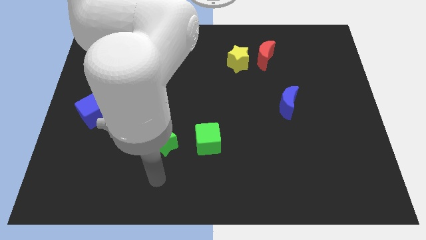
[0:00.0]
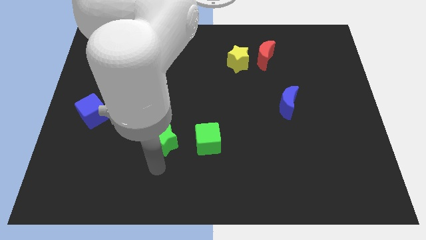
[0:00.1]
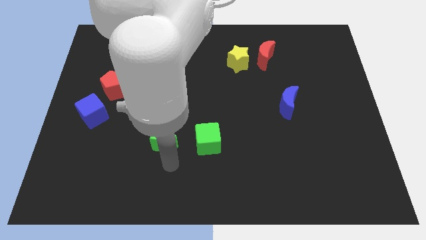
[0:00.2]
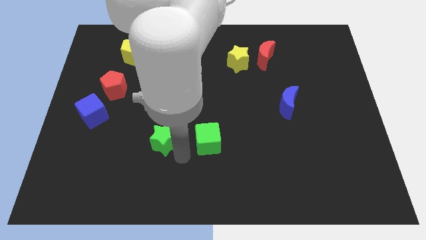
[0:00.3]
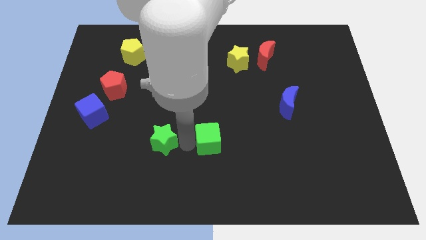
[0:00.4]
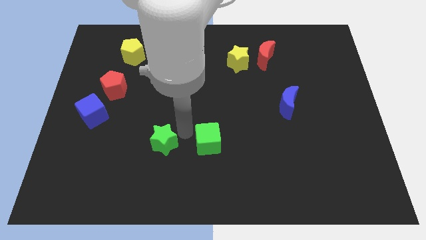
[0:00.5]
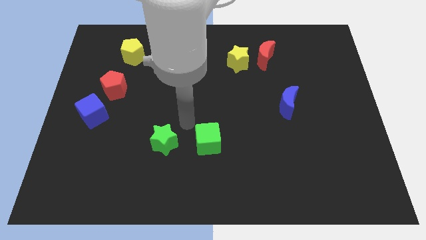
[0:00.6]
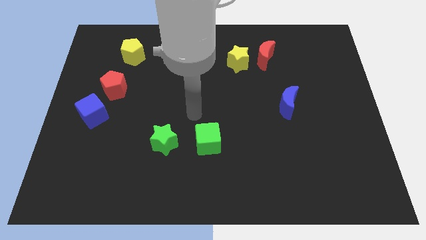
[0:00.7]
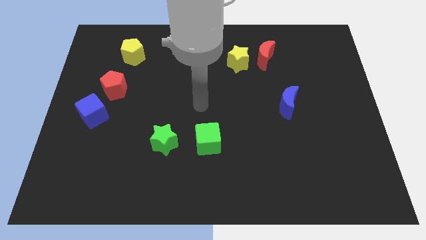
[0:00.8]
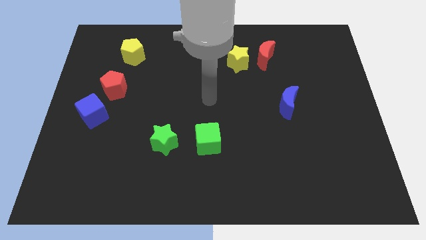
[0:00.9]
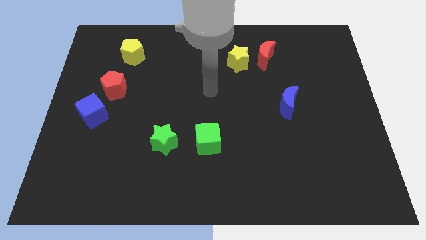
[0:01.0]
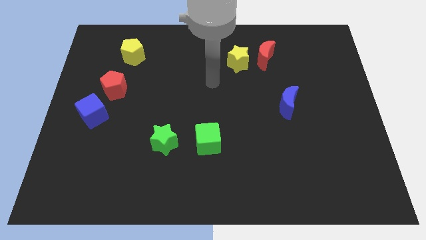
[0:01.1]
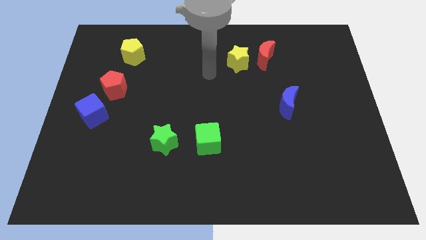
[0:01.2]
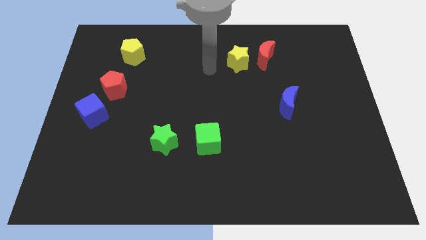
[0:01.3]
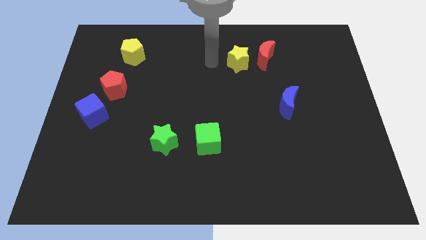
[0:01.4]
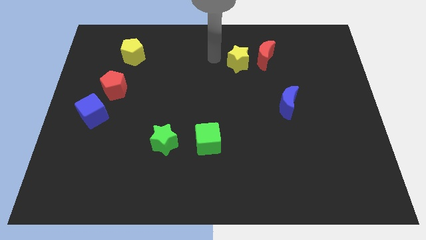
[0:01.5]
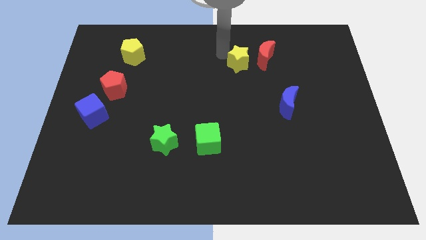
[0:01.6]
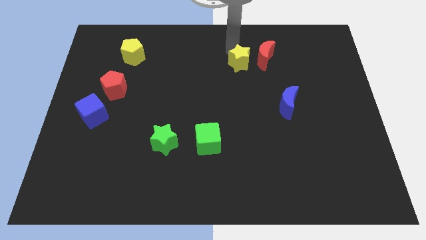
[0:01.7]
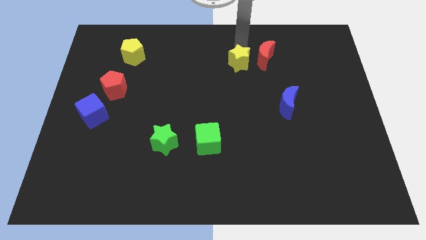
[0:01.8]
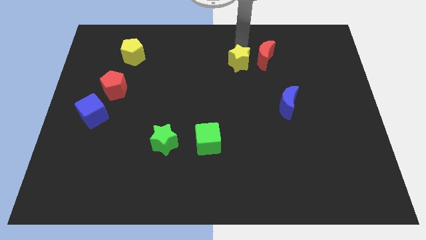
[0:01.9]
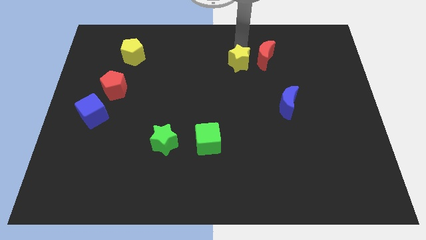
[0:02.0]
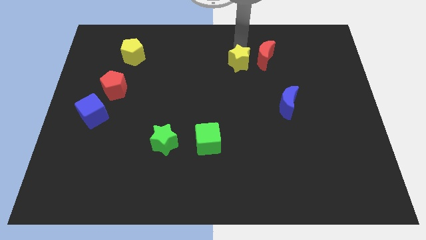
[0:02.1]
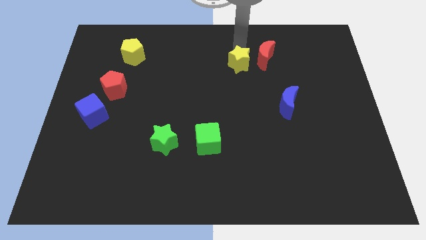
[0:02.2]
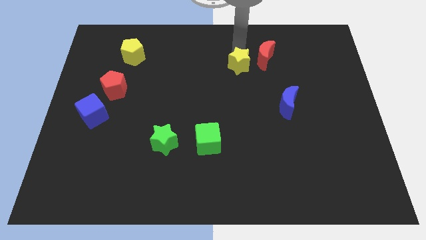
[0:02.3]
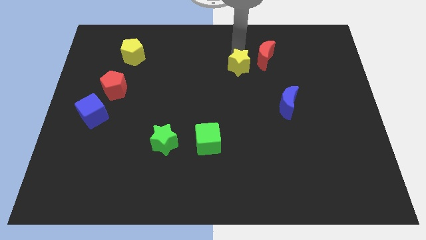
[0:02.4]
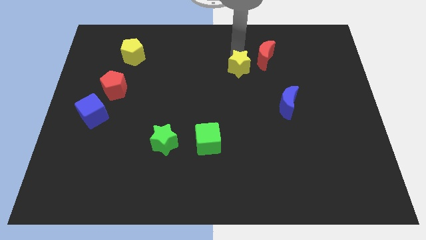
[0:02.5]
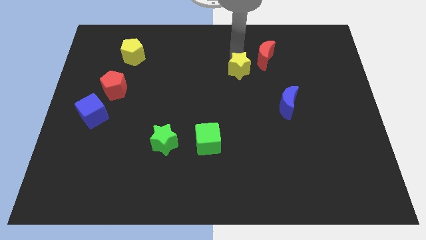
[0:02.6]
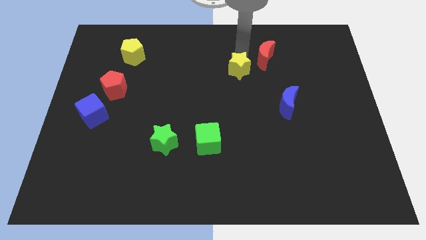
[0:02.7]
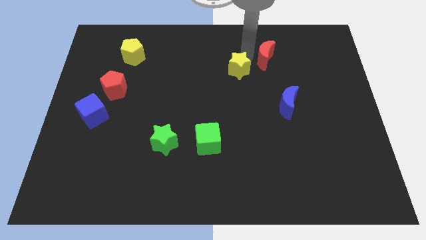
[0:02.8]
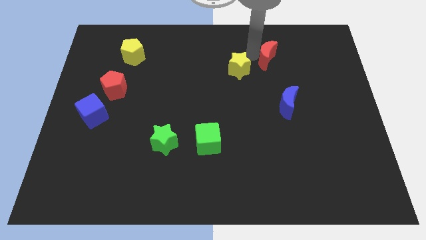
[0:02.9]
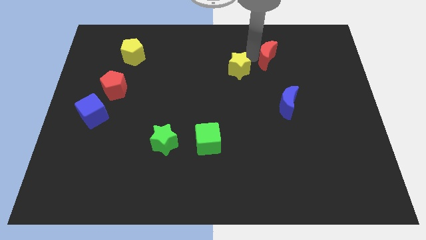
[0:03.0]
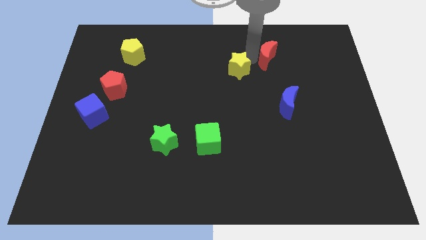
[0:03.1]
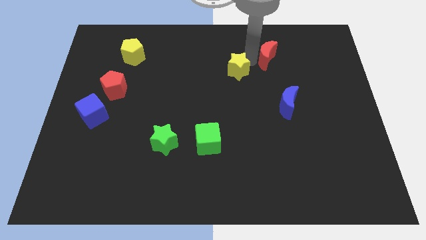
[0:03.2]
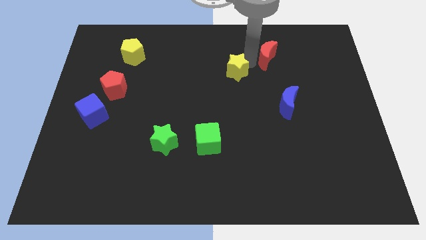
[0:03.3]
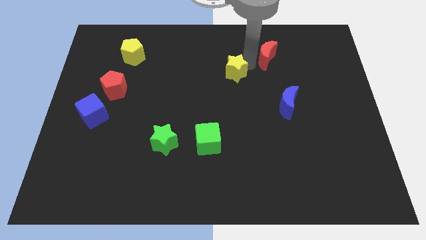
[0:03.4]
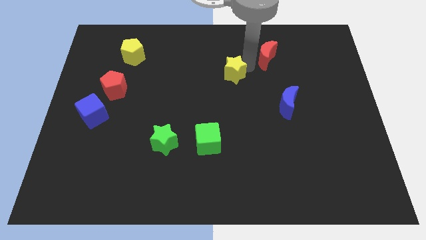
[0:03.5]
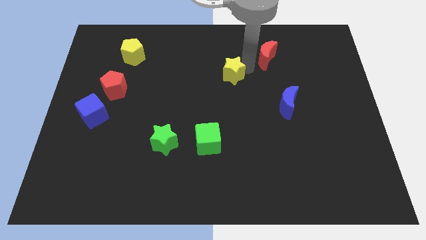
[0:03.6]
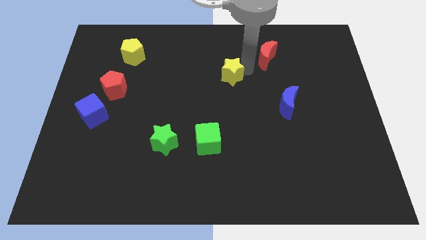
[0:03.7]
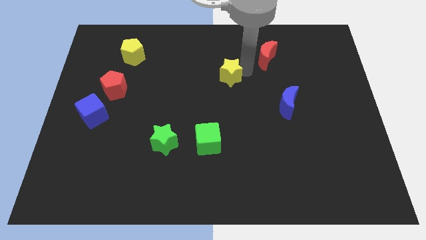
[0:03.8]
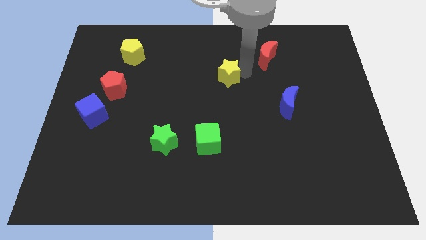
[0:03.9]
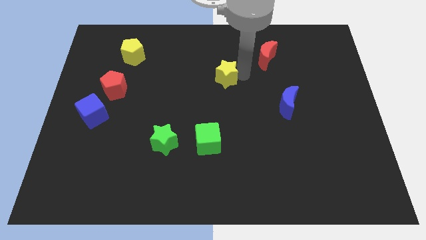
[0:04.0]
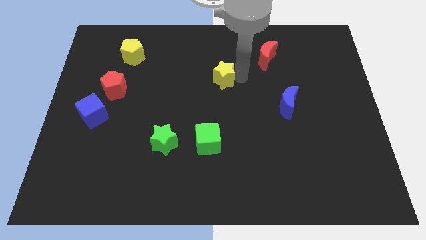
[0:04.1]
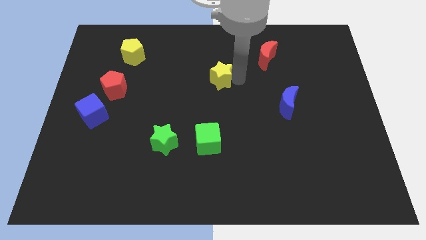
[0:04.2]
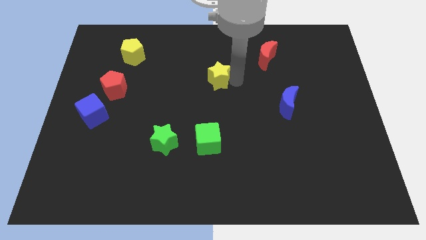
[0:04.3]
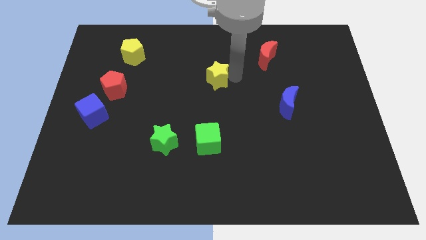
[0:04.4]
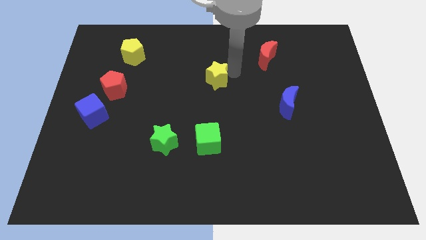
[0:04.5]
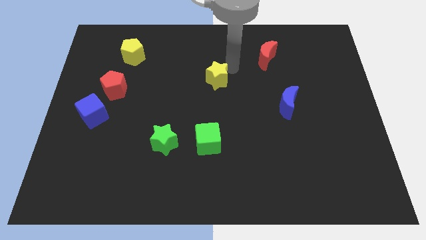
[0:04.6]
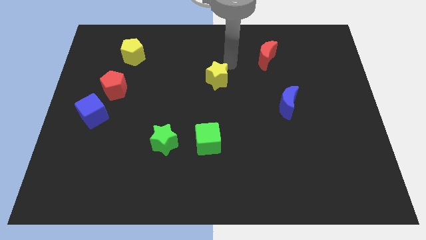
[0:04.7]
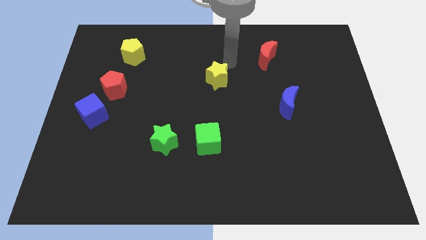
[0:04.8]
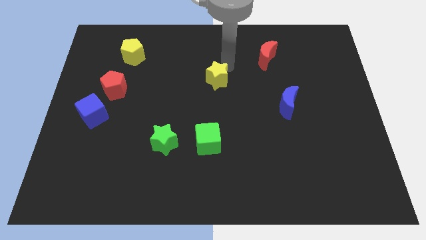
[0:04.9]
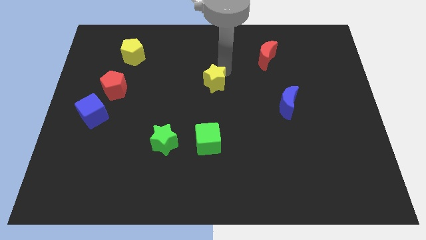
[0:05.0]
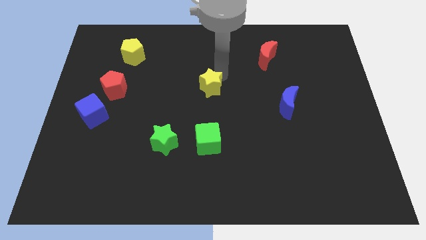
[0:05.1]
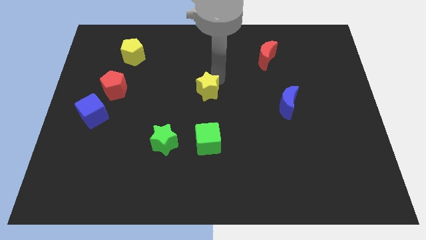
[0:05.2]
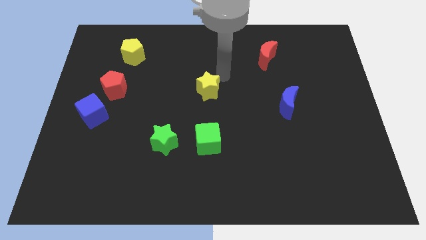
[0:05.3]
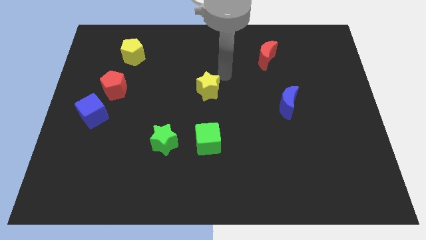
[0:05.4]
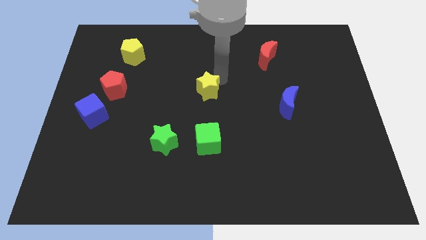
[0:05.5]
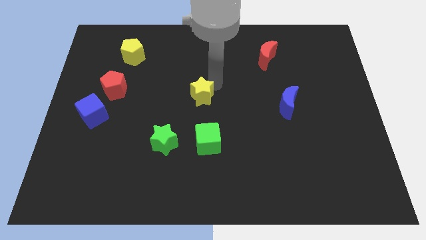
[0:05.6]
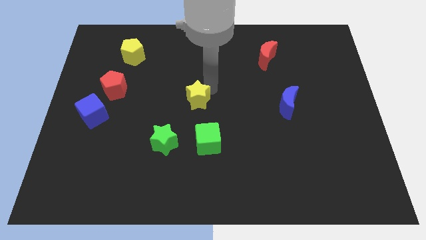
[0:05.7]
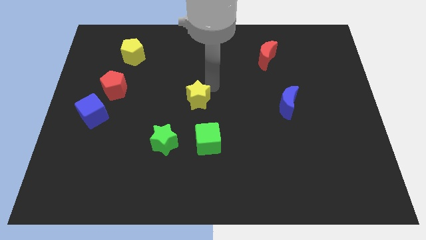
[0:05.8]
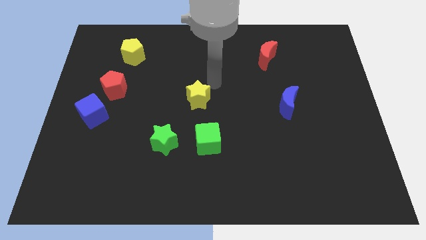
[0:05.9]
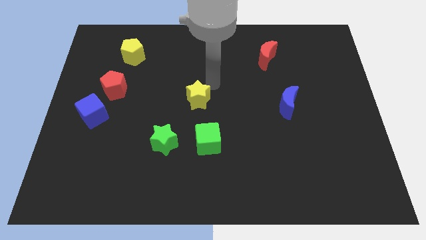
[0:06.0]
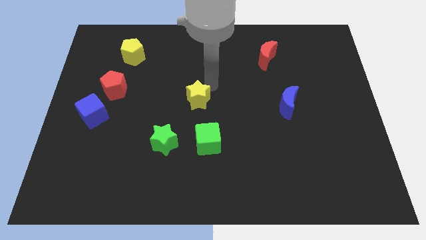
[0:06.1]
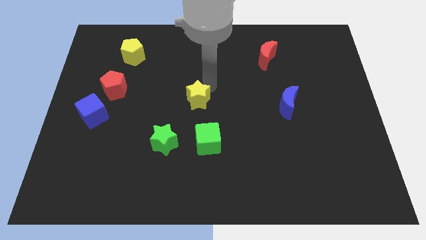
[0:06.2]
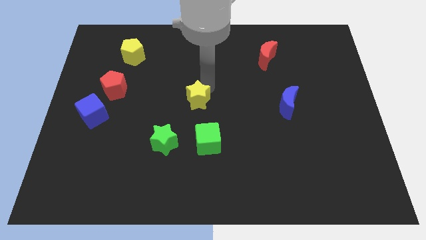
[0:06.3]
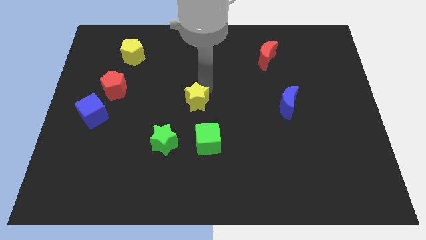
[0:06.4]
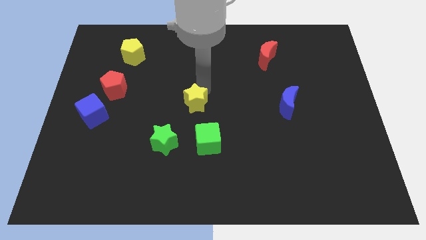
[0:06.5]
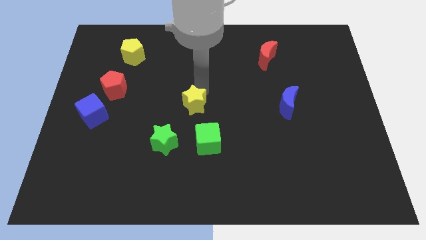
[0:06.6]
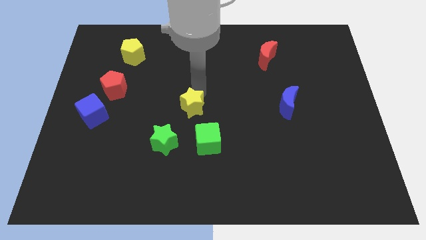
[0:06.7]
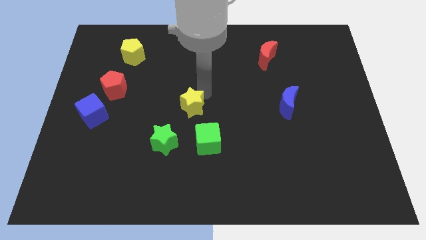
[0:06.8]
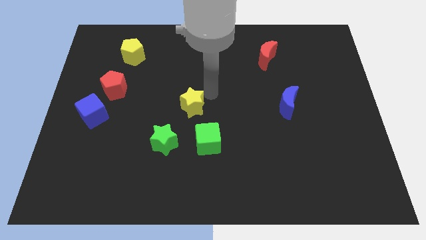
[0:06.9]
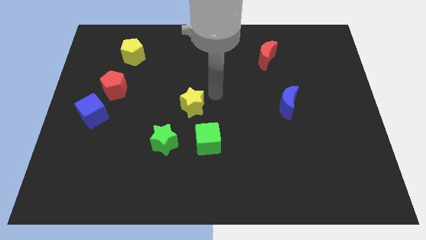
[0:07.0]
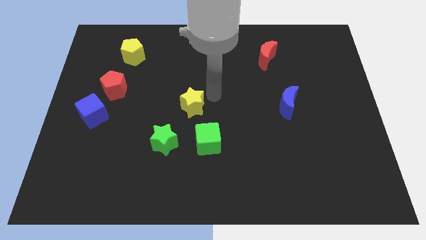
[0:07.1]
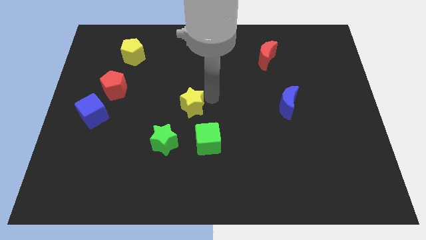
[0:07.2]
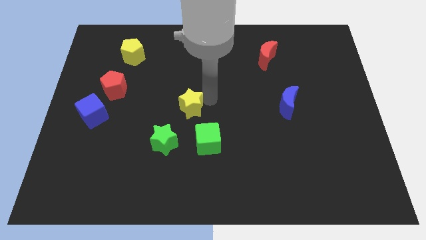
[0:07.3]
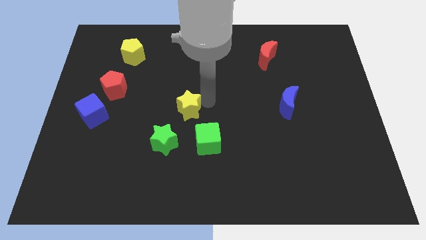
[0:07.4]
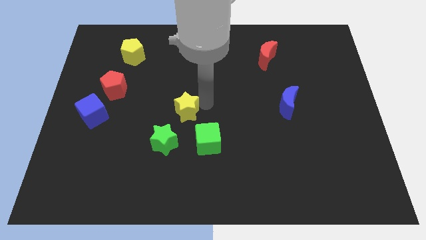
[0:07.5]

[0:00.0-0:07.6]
slide the yellow star downwards and then left

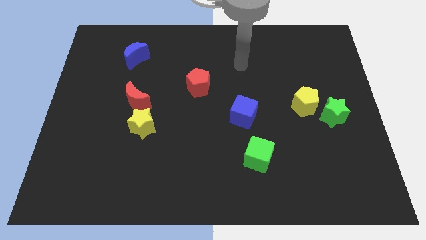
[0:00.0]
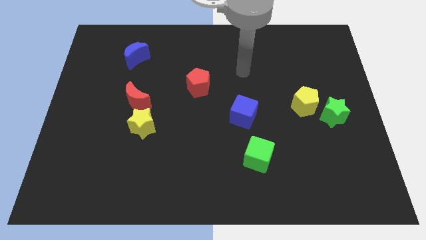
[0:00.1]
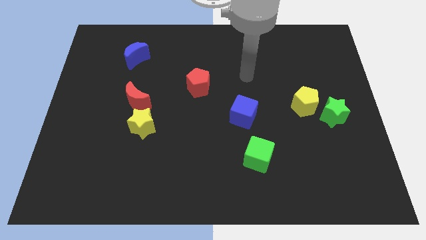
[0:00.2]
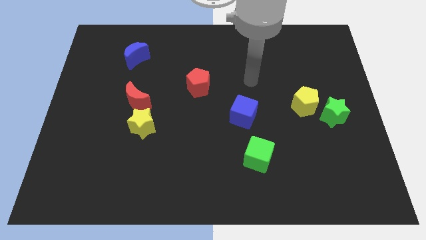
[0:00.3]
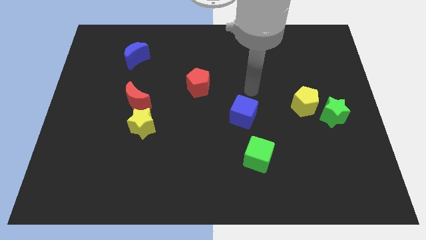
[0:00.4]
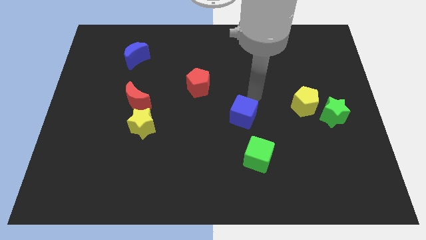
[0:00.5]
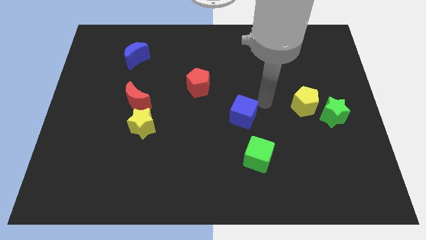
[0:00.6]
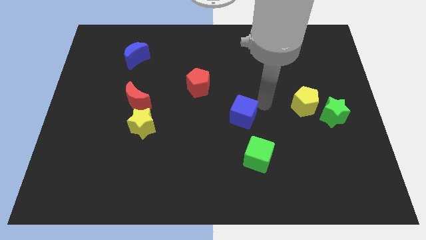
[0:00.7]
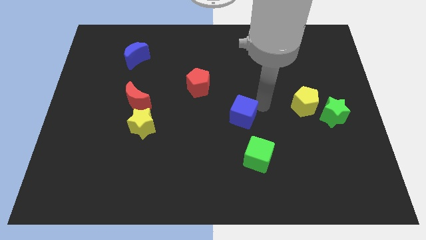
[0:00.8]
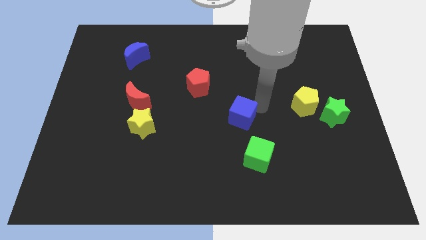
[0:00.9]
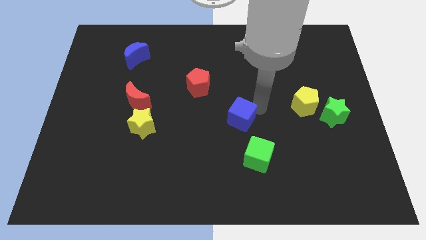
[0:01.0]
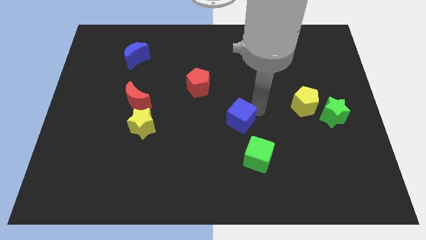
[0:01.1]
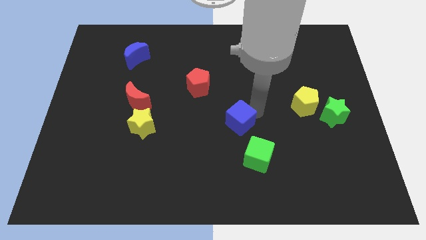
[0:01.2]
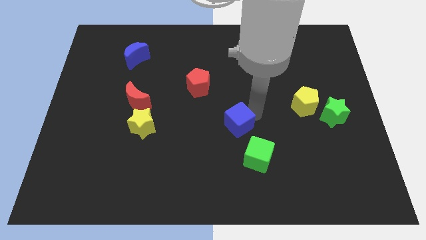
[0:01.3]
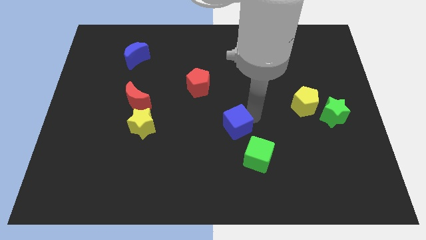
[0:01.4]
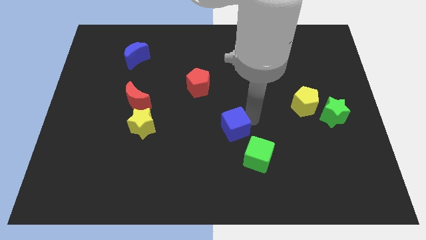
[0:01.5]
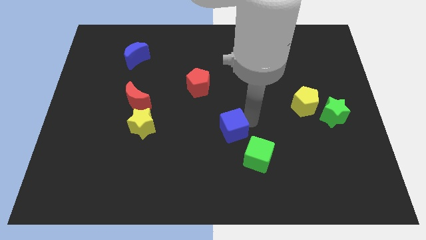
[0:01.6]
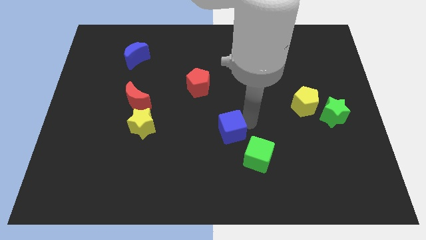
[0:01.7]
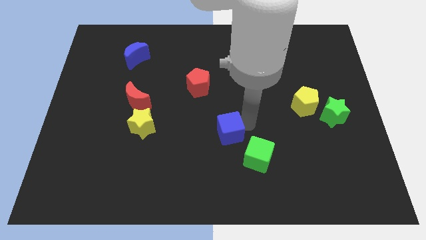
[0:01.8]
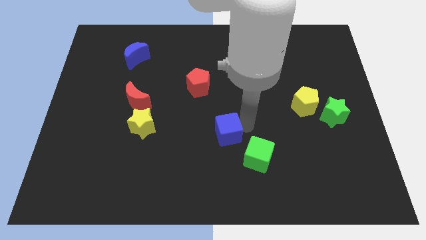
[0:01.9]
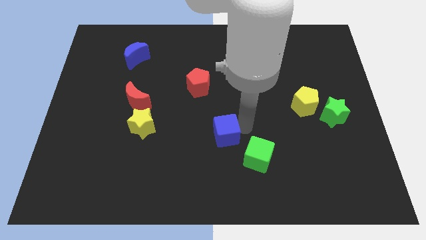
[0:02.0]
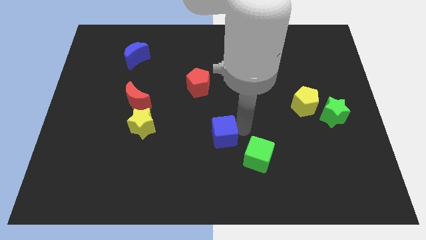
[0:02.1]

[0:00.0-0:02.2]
push the blue cube downwards and to the left slightly
